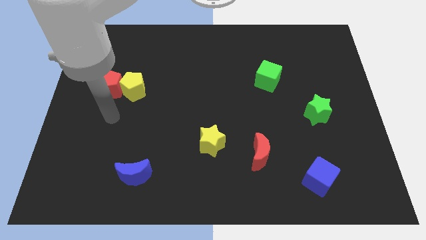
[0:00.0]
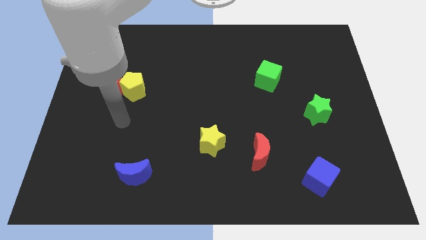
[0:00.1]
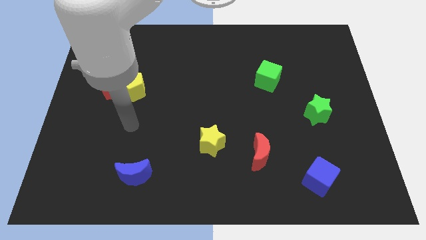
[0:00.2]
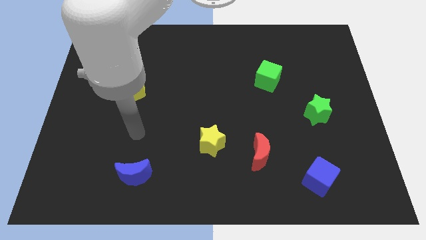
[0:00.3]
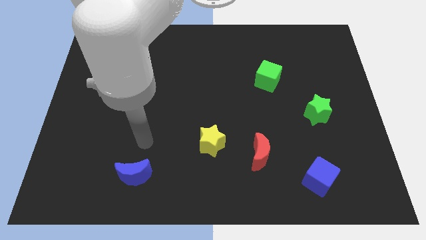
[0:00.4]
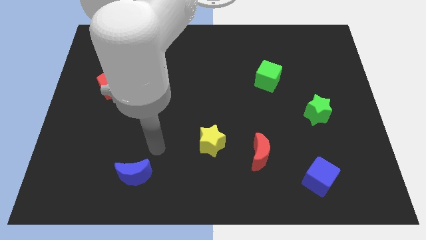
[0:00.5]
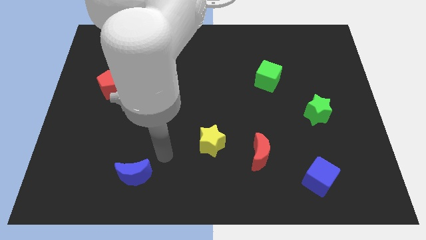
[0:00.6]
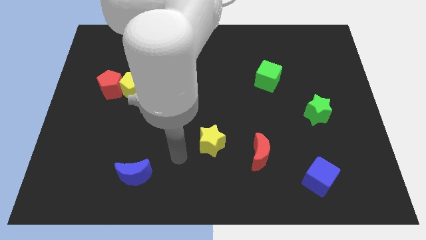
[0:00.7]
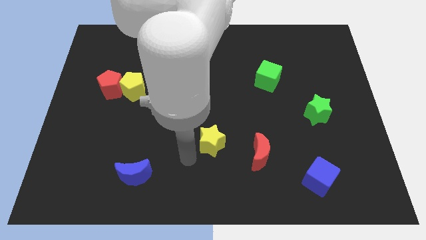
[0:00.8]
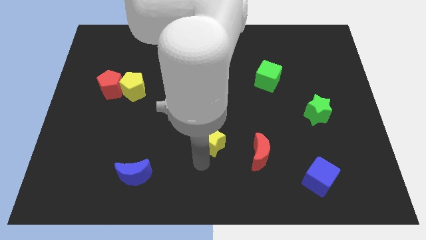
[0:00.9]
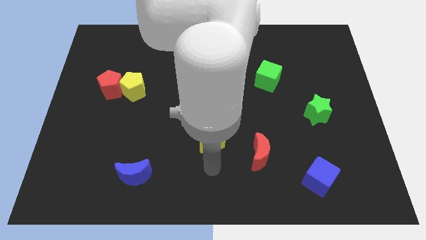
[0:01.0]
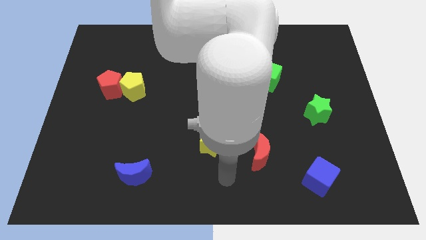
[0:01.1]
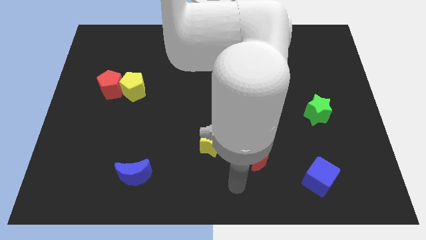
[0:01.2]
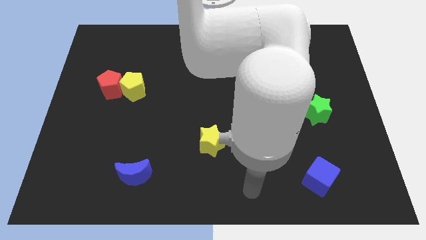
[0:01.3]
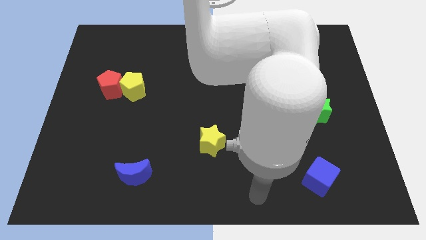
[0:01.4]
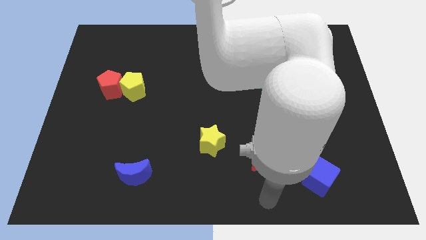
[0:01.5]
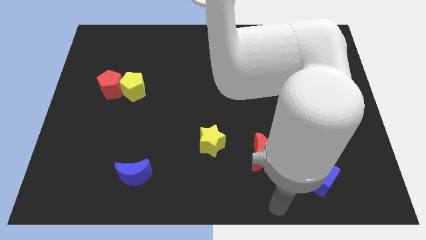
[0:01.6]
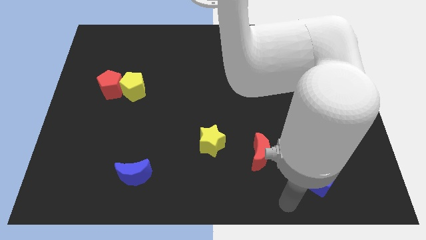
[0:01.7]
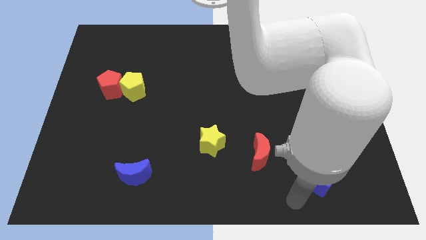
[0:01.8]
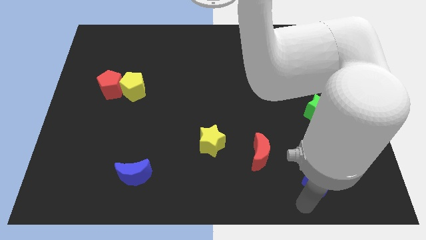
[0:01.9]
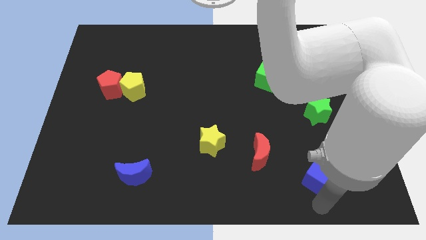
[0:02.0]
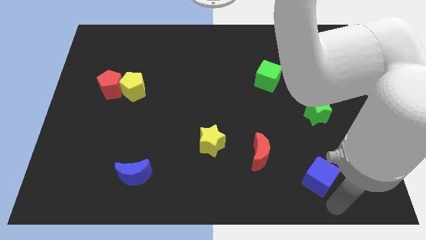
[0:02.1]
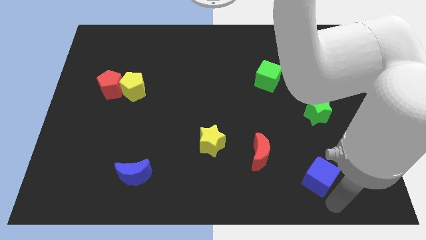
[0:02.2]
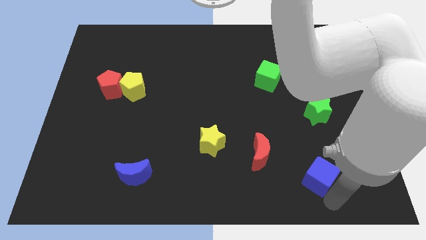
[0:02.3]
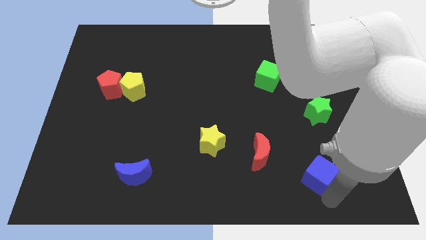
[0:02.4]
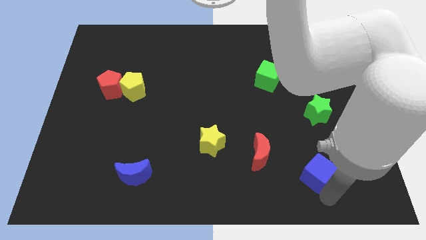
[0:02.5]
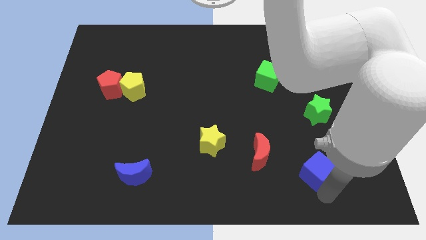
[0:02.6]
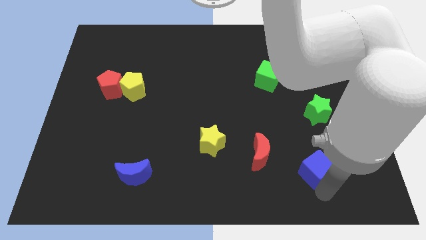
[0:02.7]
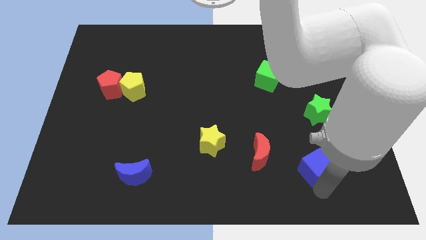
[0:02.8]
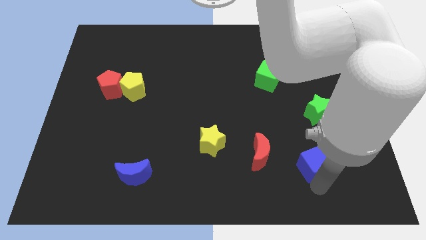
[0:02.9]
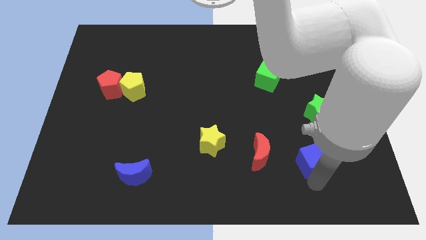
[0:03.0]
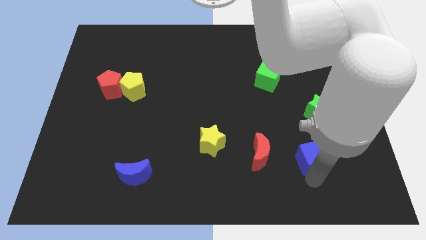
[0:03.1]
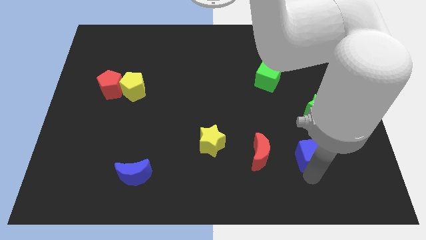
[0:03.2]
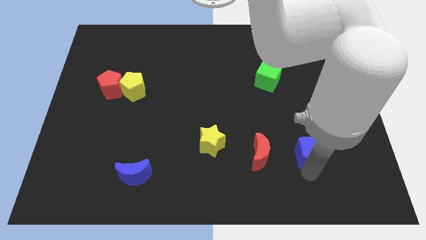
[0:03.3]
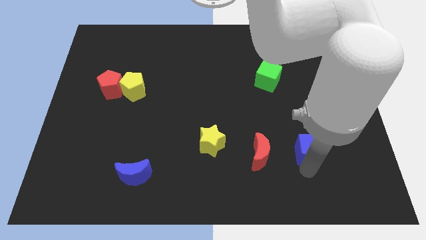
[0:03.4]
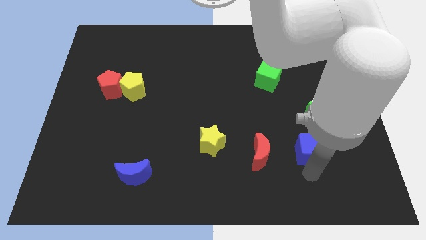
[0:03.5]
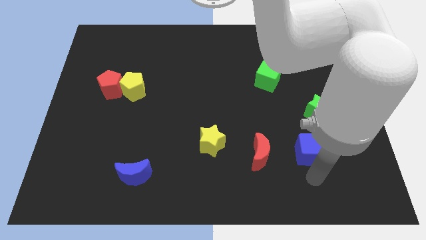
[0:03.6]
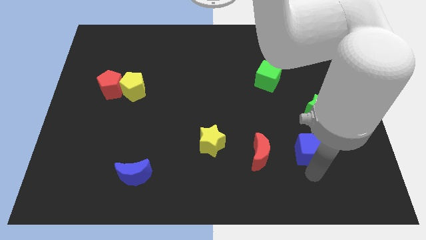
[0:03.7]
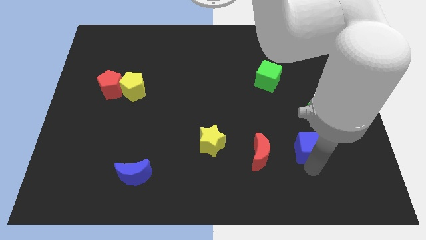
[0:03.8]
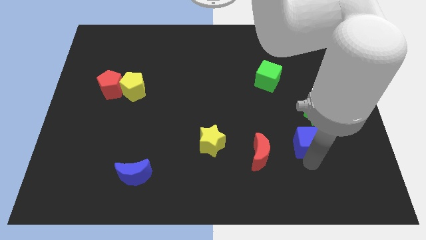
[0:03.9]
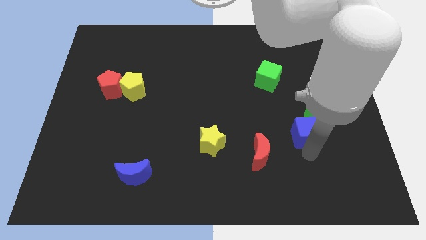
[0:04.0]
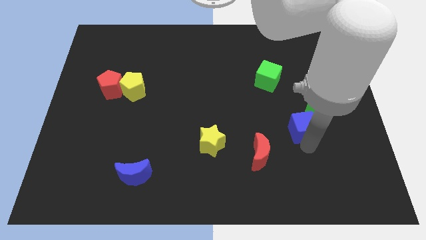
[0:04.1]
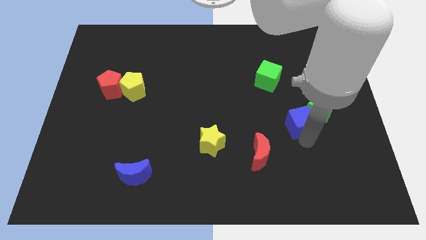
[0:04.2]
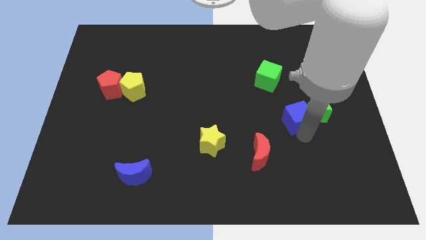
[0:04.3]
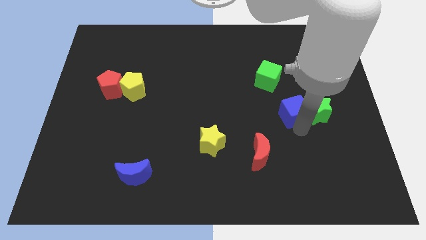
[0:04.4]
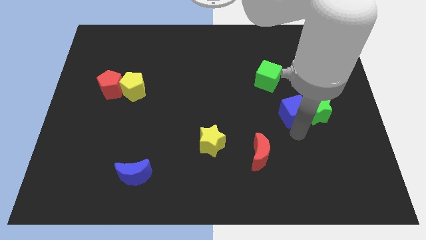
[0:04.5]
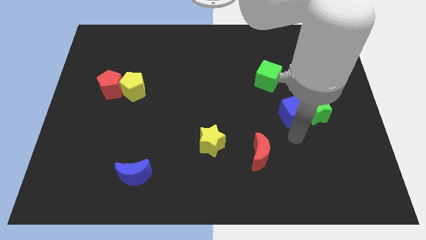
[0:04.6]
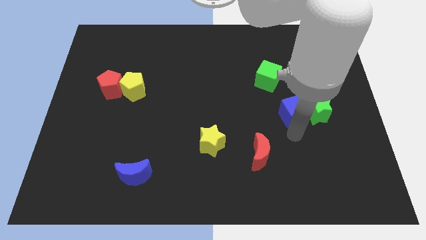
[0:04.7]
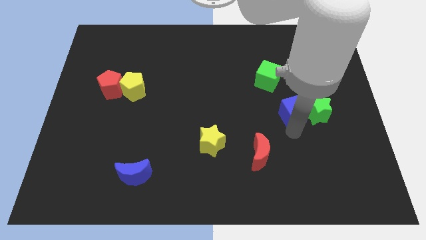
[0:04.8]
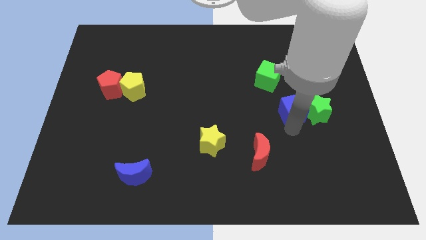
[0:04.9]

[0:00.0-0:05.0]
push the blue cube diagonally down and to the right of the green cube

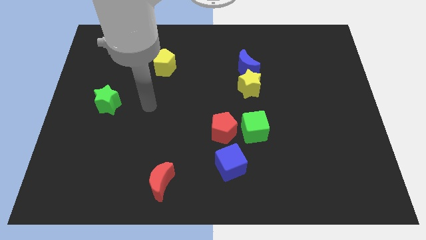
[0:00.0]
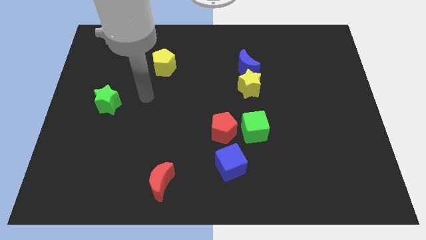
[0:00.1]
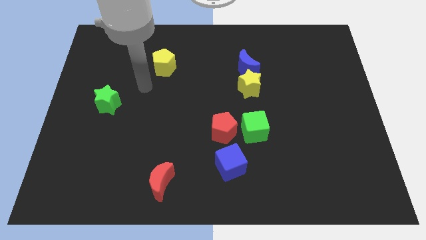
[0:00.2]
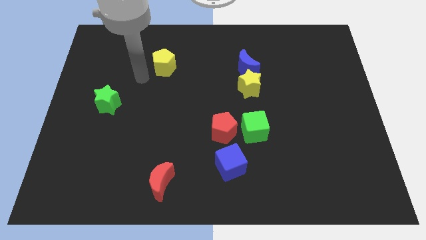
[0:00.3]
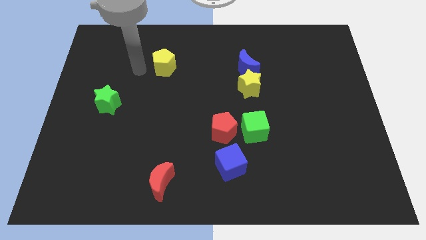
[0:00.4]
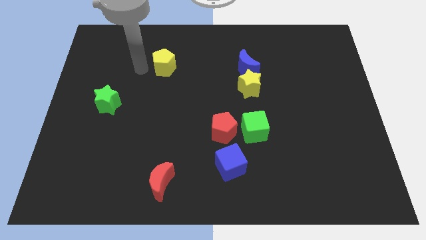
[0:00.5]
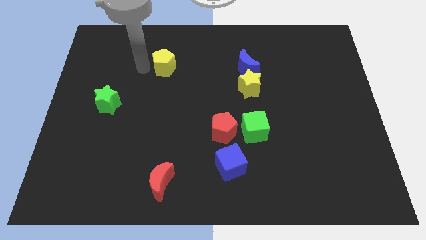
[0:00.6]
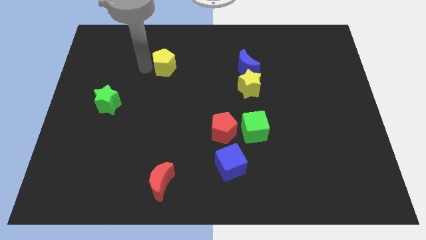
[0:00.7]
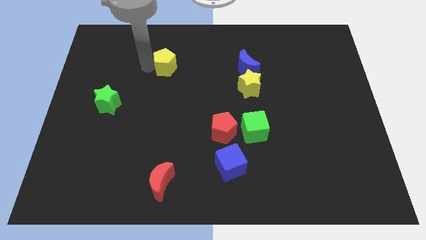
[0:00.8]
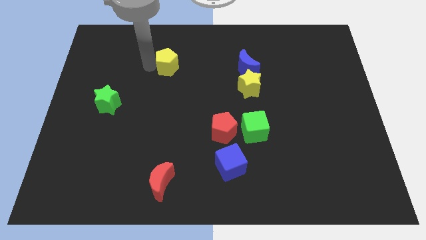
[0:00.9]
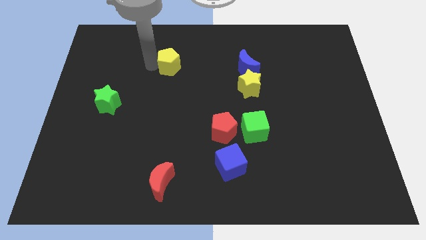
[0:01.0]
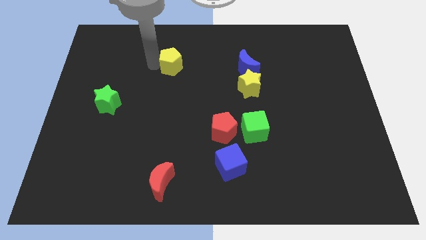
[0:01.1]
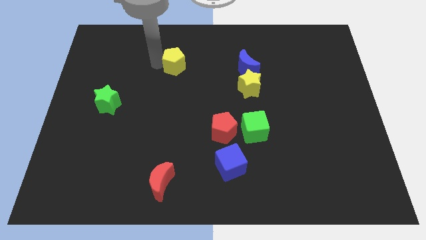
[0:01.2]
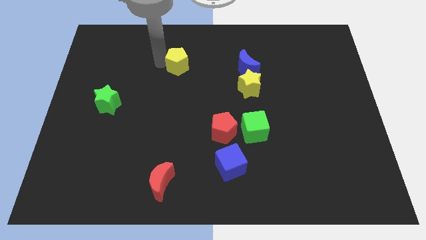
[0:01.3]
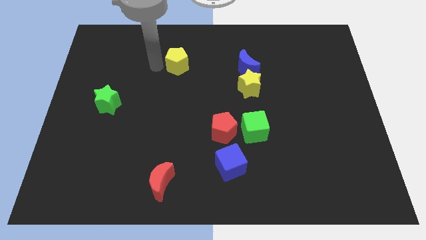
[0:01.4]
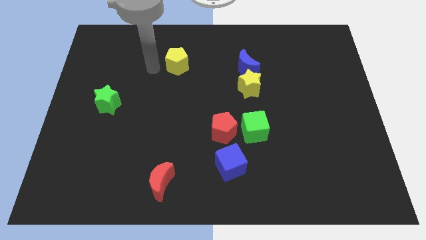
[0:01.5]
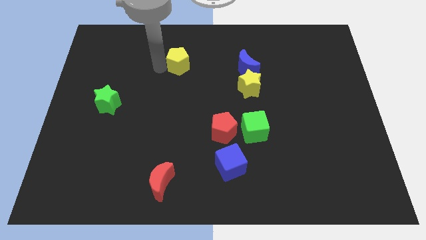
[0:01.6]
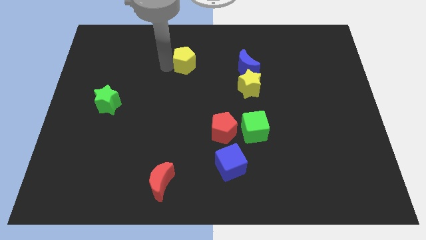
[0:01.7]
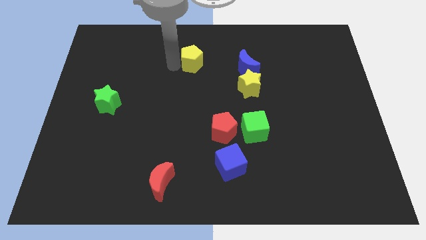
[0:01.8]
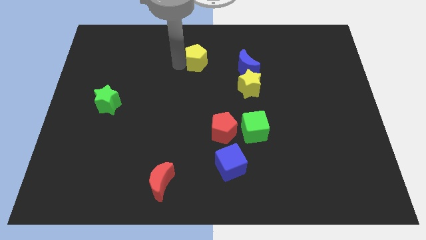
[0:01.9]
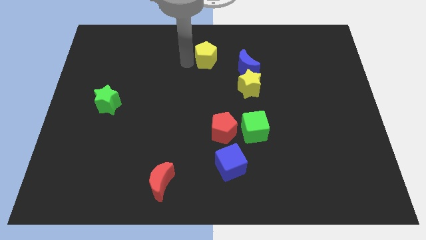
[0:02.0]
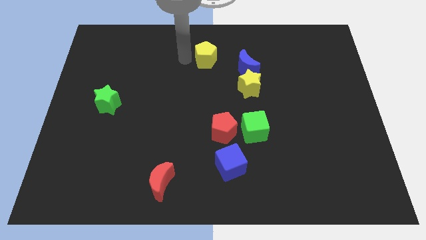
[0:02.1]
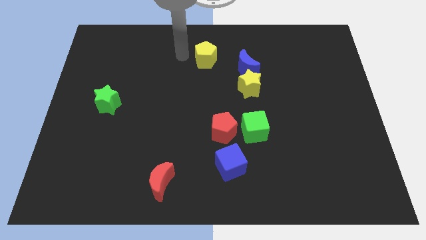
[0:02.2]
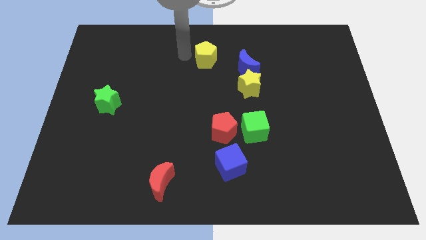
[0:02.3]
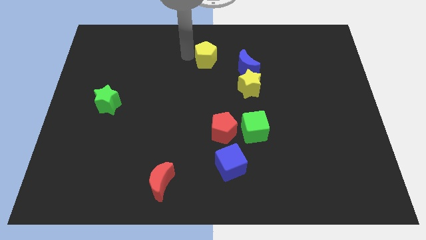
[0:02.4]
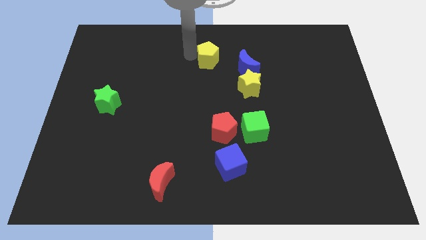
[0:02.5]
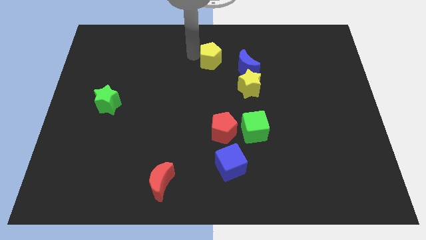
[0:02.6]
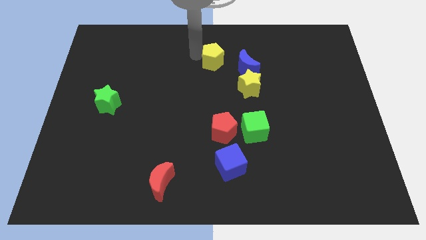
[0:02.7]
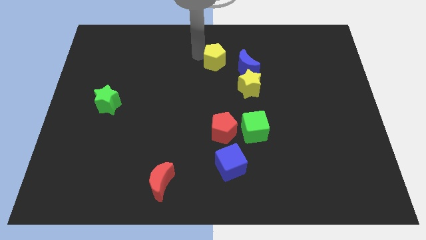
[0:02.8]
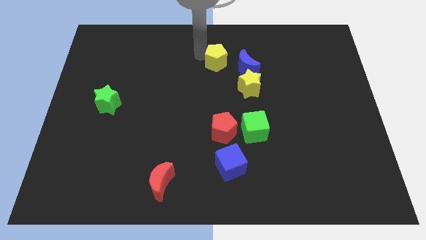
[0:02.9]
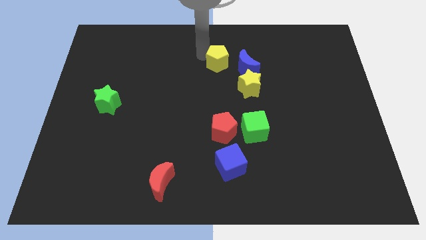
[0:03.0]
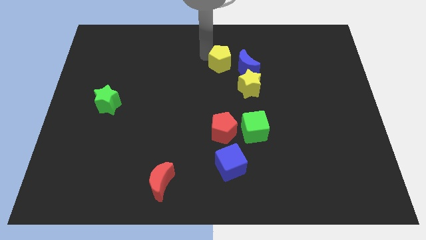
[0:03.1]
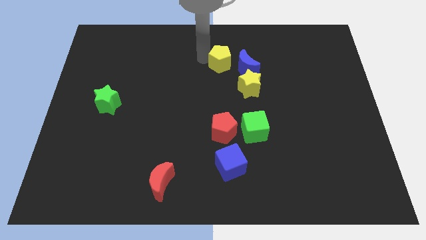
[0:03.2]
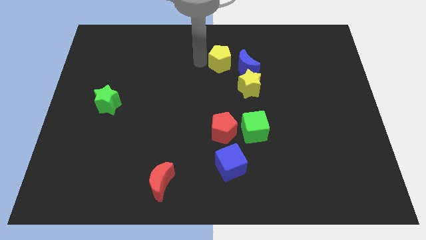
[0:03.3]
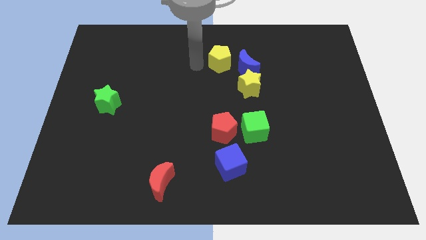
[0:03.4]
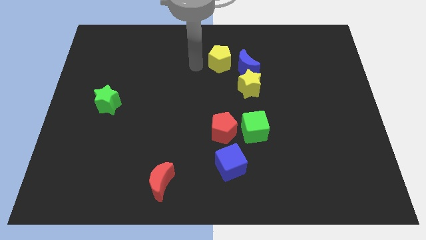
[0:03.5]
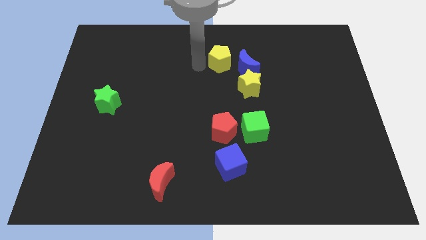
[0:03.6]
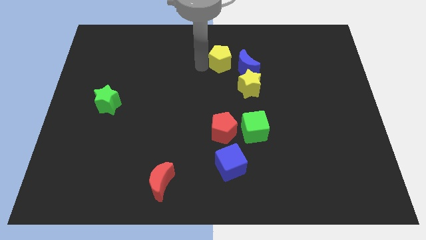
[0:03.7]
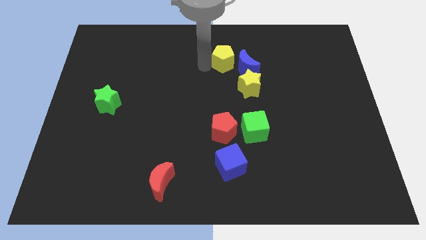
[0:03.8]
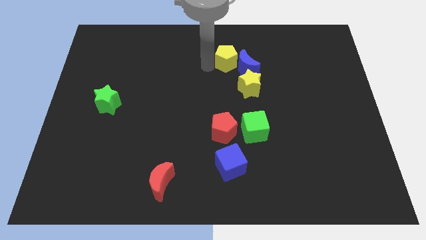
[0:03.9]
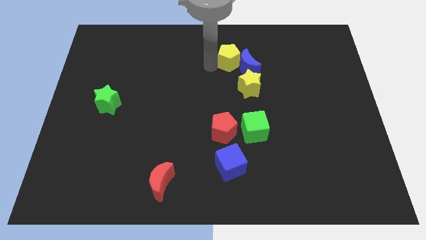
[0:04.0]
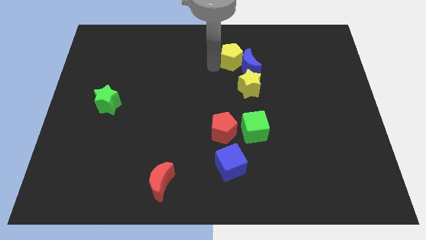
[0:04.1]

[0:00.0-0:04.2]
move the yellow pentagon to the top side of the yellow star
